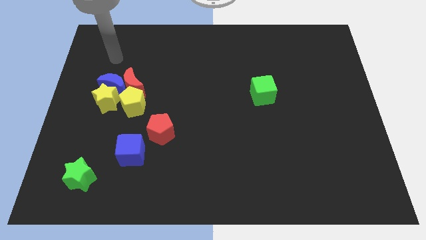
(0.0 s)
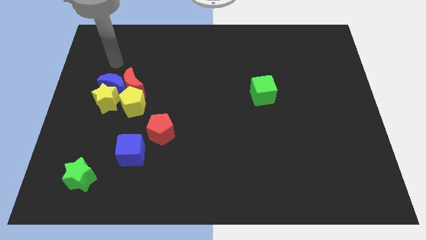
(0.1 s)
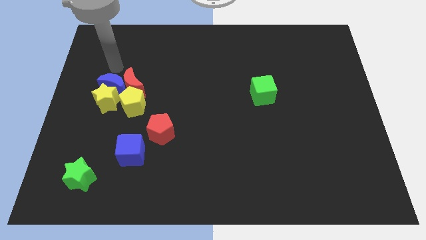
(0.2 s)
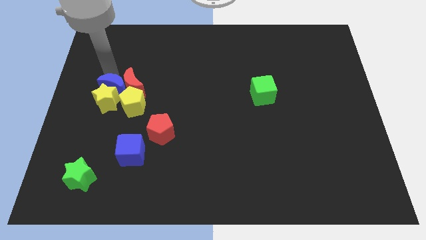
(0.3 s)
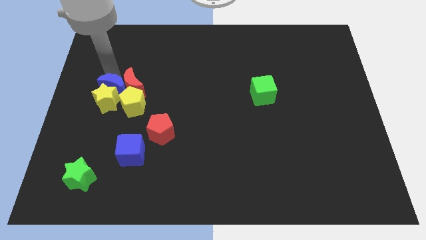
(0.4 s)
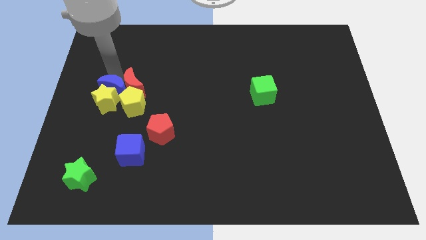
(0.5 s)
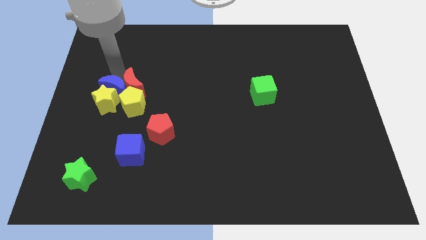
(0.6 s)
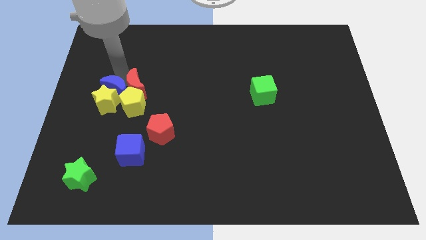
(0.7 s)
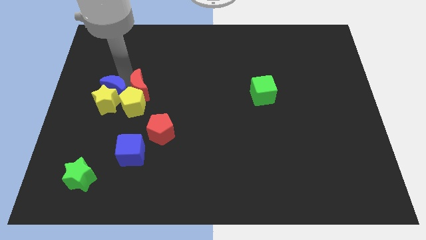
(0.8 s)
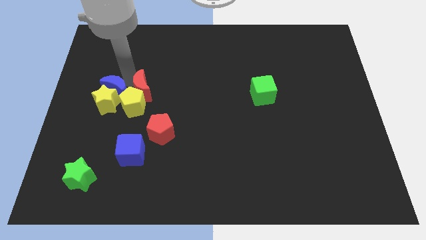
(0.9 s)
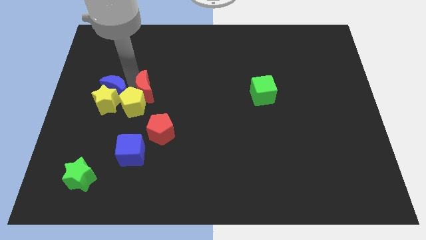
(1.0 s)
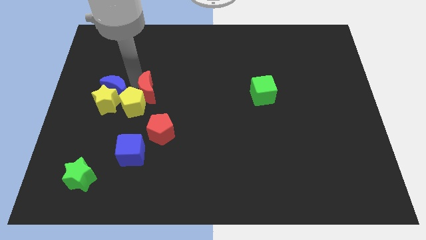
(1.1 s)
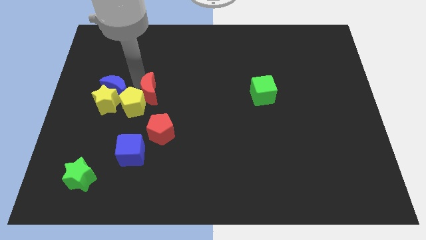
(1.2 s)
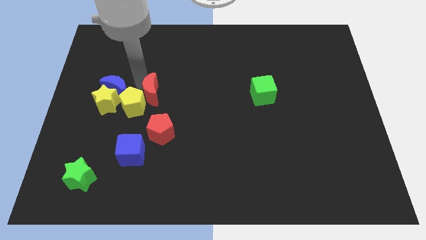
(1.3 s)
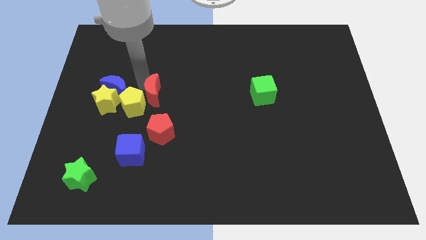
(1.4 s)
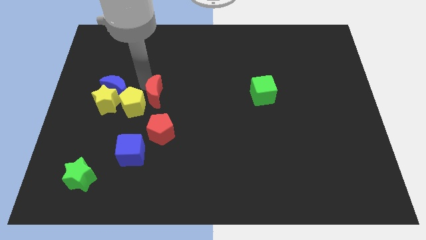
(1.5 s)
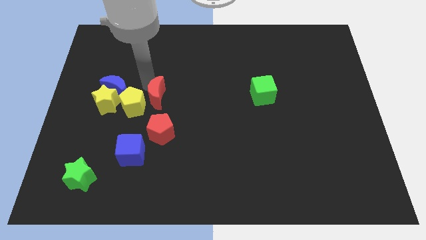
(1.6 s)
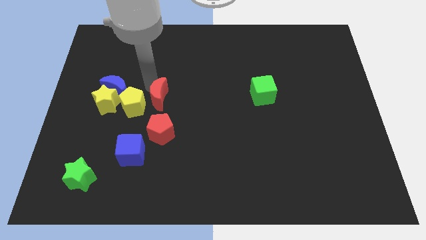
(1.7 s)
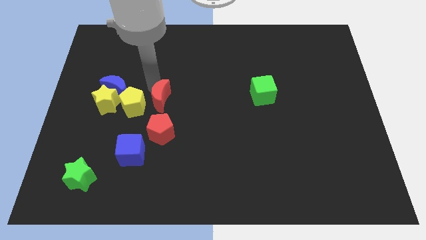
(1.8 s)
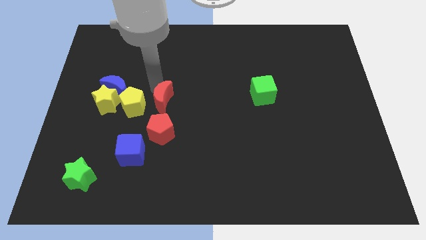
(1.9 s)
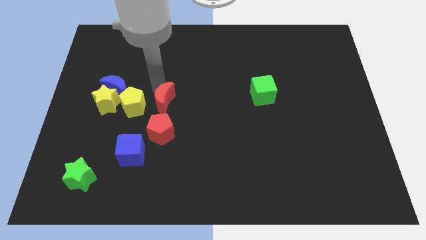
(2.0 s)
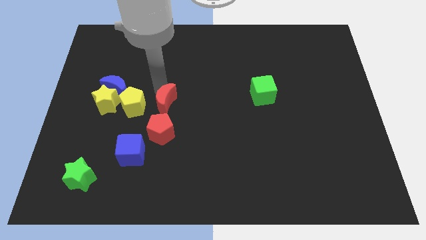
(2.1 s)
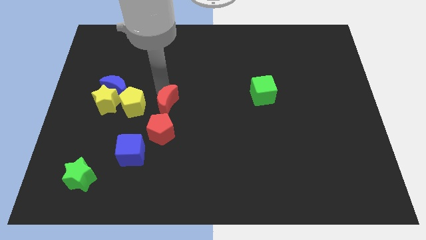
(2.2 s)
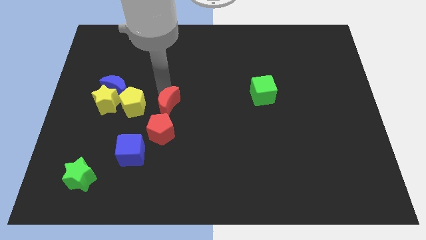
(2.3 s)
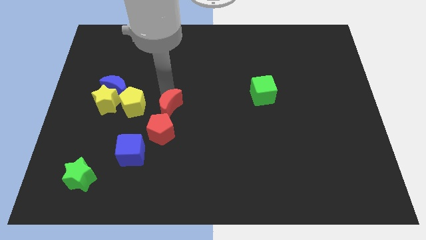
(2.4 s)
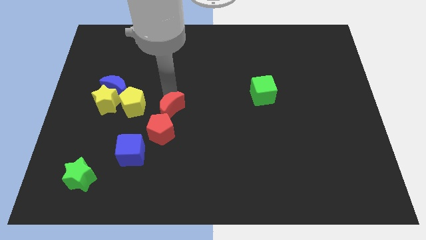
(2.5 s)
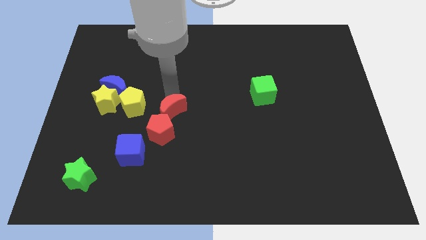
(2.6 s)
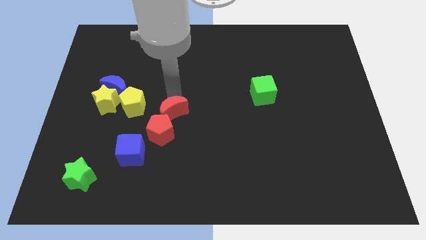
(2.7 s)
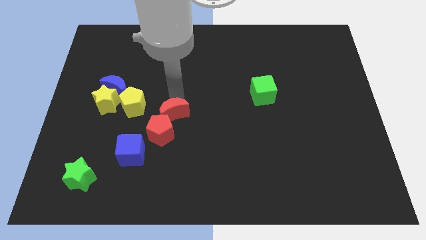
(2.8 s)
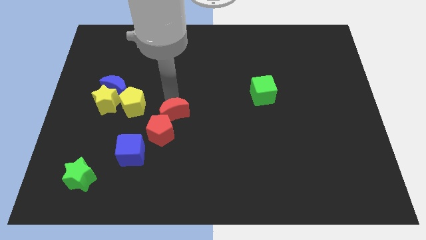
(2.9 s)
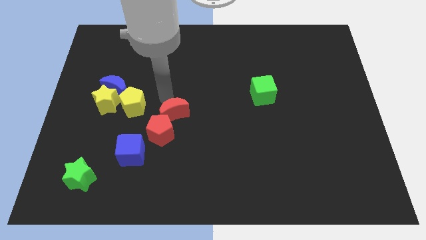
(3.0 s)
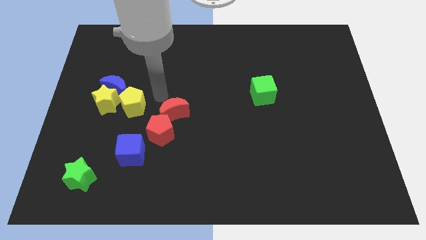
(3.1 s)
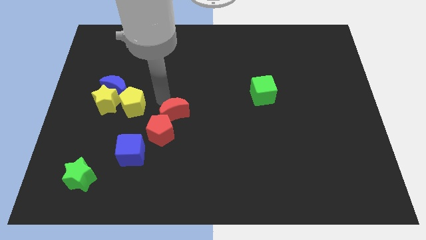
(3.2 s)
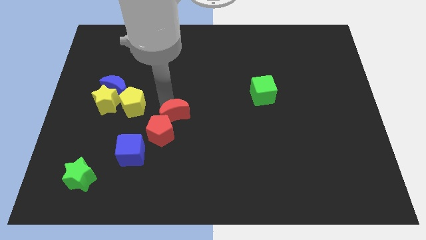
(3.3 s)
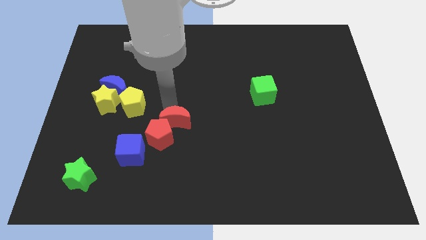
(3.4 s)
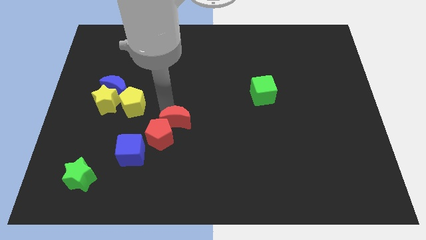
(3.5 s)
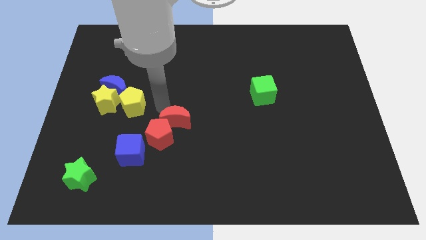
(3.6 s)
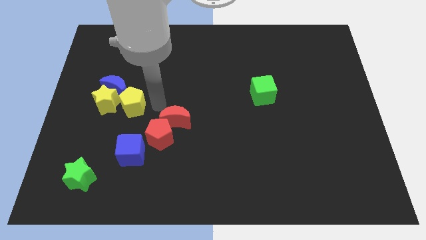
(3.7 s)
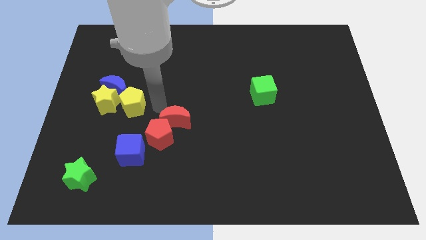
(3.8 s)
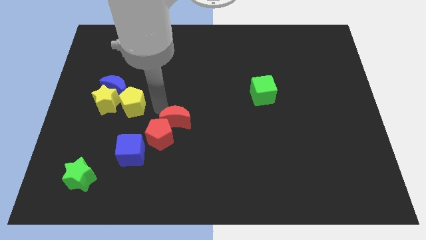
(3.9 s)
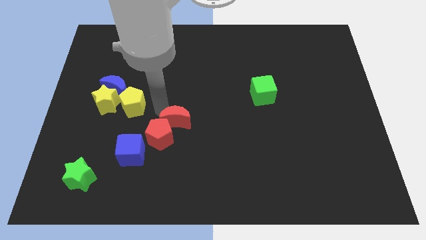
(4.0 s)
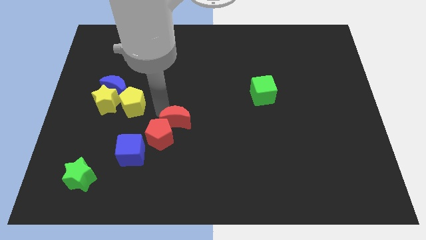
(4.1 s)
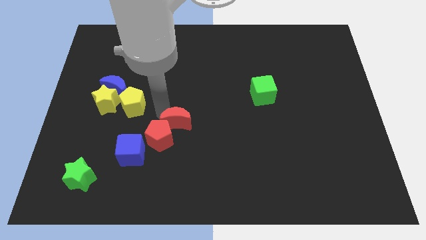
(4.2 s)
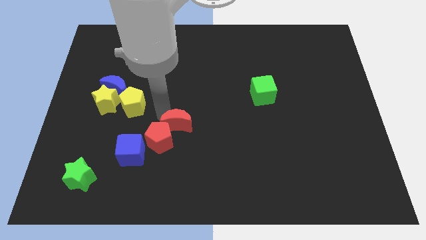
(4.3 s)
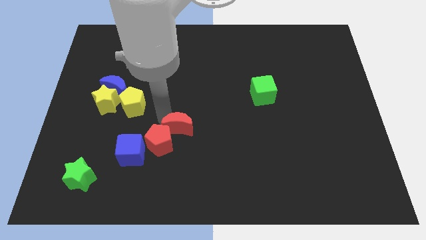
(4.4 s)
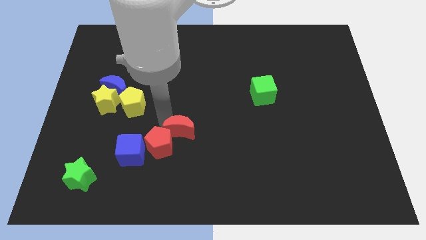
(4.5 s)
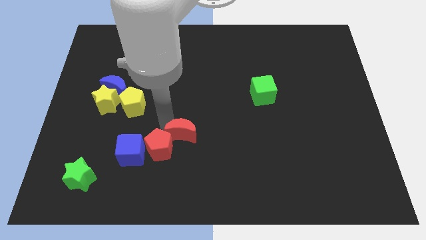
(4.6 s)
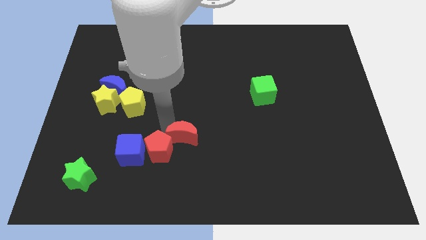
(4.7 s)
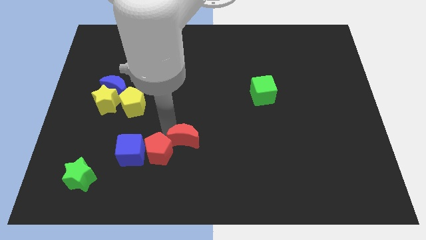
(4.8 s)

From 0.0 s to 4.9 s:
push the red moon diagonally down and to the right

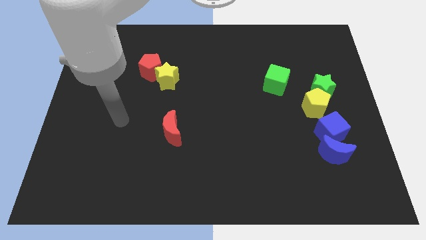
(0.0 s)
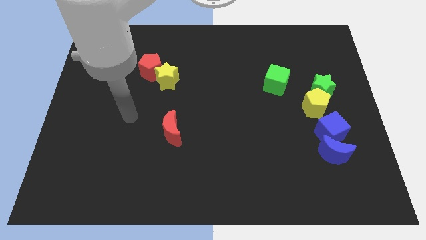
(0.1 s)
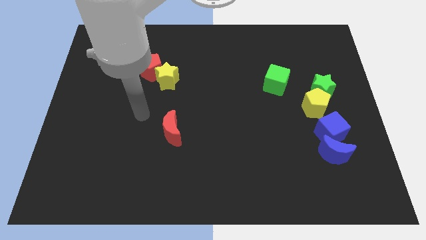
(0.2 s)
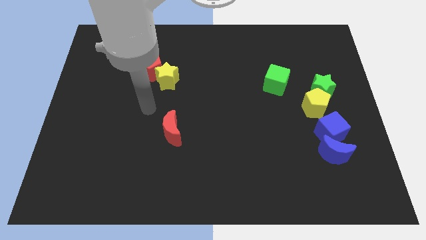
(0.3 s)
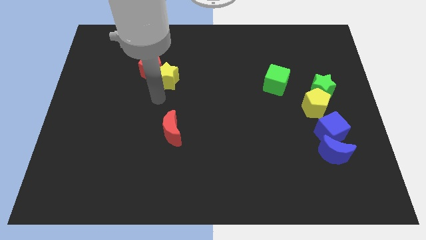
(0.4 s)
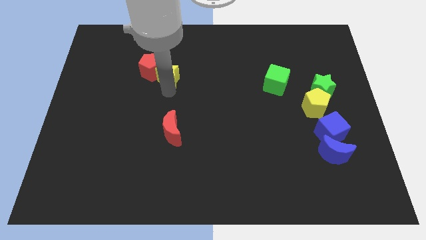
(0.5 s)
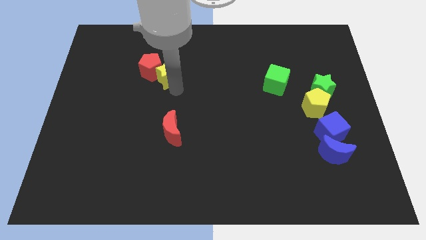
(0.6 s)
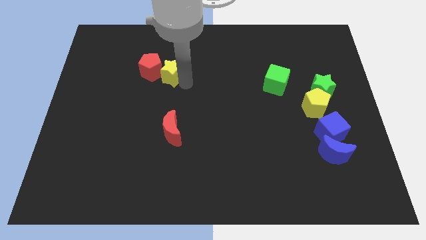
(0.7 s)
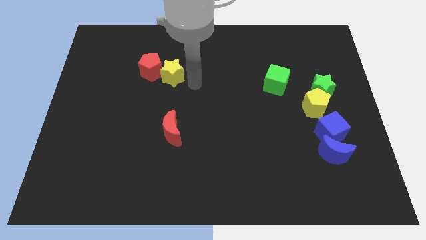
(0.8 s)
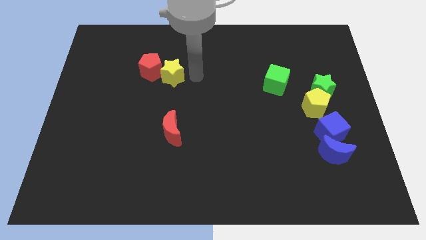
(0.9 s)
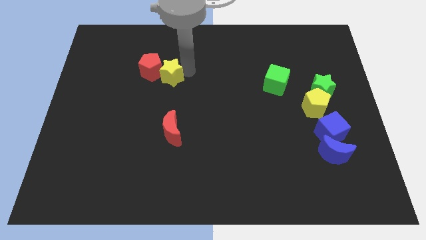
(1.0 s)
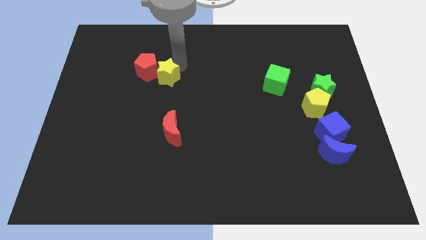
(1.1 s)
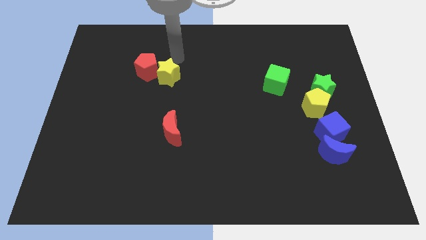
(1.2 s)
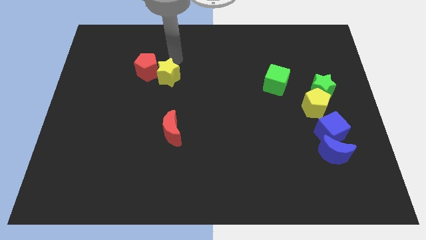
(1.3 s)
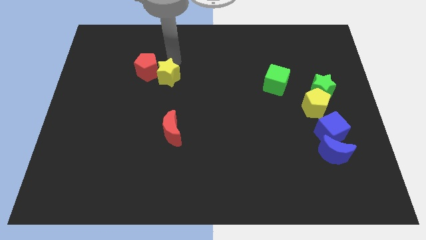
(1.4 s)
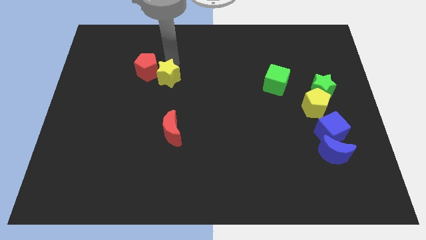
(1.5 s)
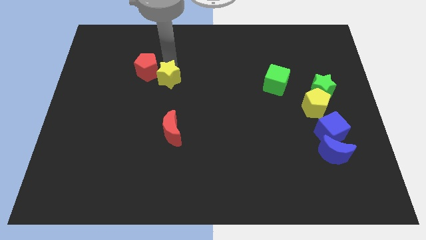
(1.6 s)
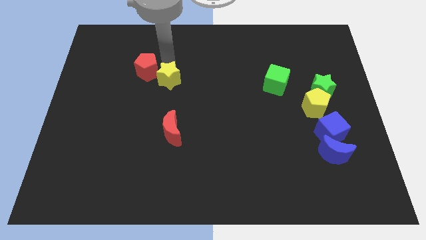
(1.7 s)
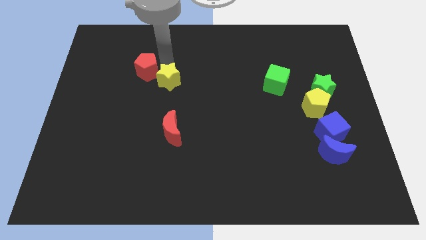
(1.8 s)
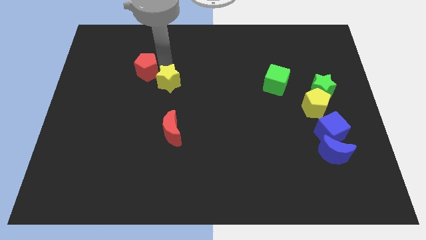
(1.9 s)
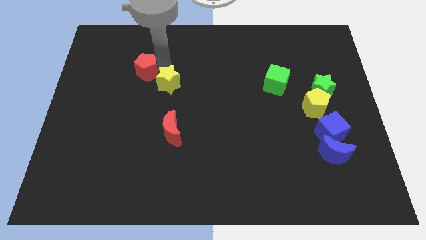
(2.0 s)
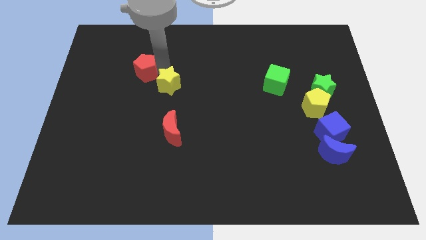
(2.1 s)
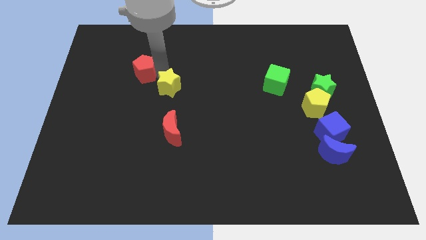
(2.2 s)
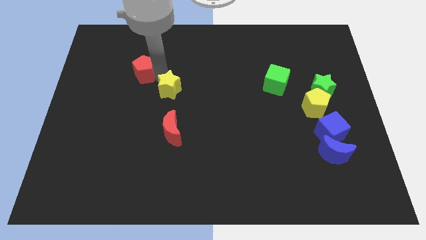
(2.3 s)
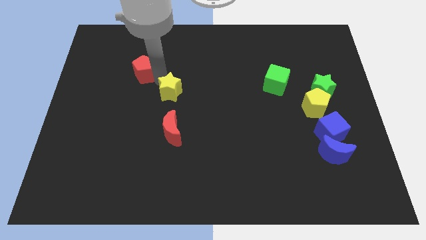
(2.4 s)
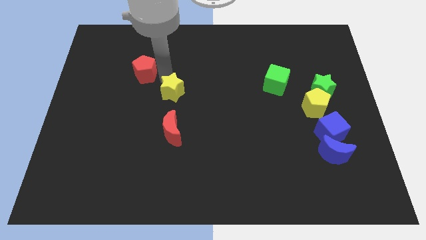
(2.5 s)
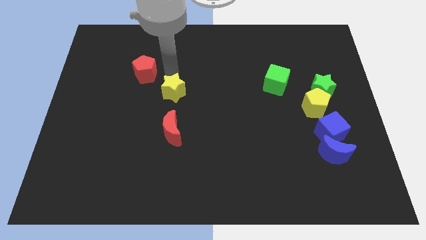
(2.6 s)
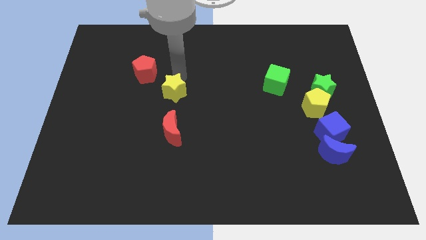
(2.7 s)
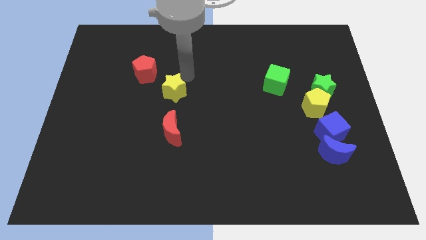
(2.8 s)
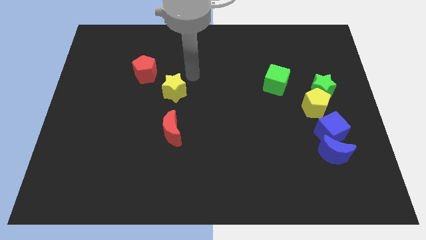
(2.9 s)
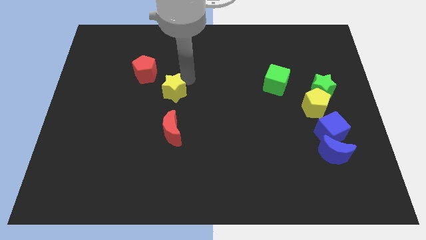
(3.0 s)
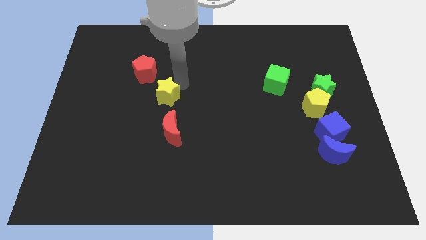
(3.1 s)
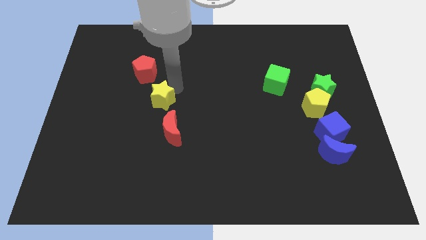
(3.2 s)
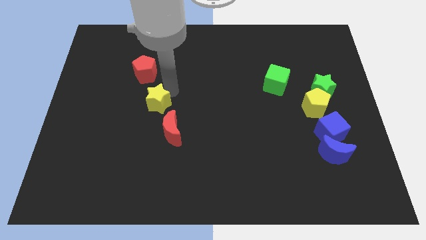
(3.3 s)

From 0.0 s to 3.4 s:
push the yellow star a little bit down
